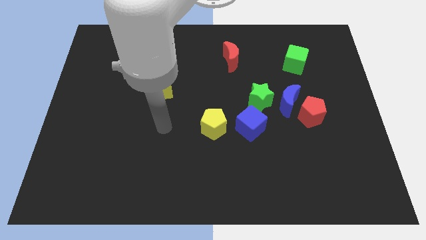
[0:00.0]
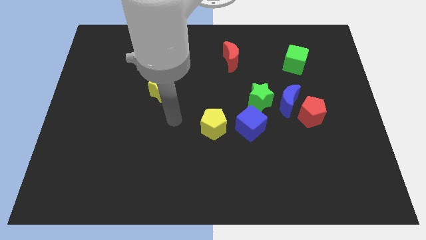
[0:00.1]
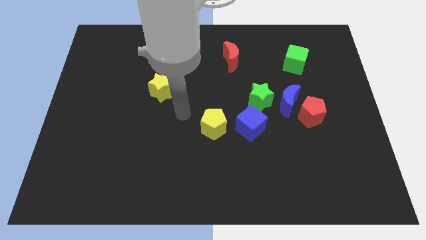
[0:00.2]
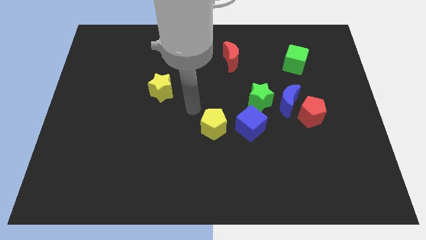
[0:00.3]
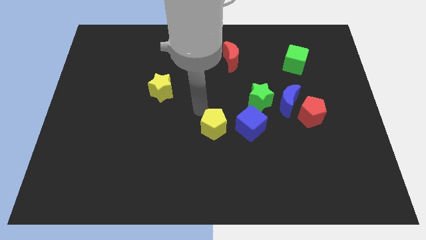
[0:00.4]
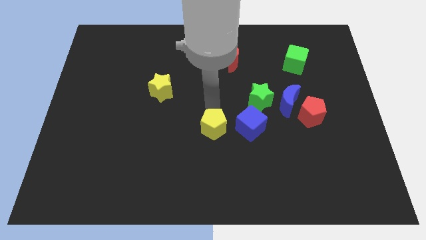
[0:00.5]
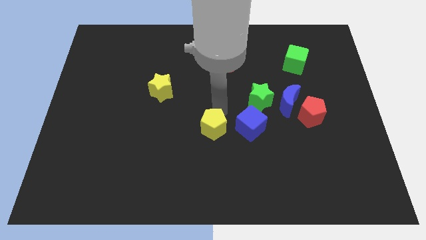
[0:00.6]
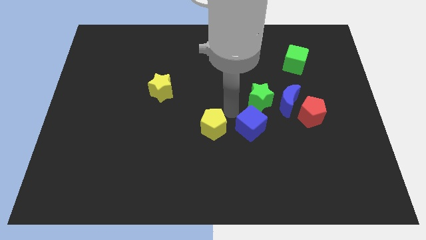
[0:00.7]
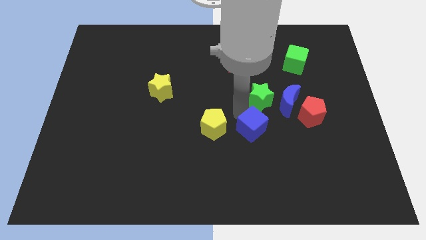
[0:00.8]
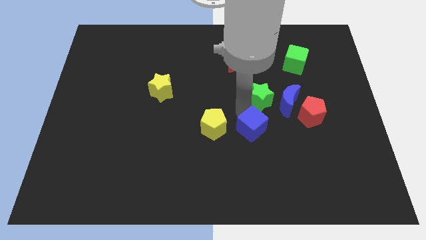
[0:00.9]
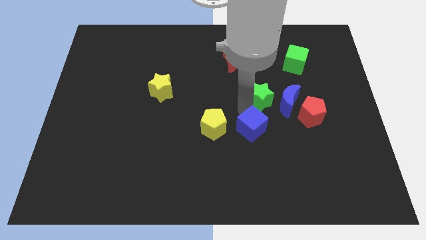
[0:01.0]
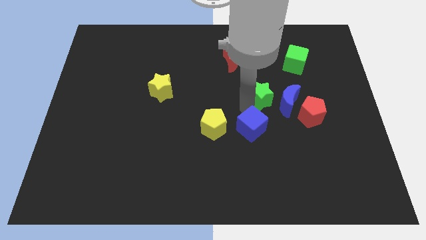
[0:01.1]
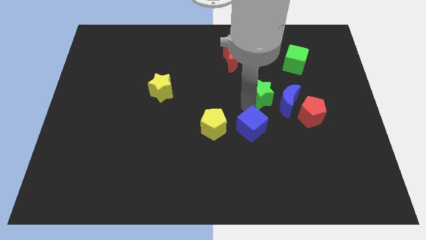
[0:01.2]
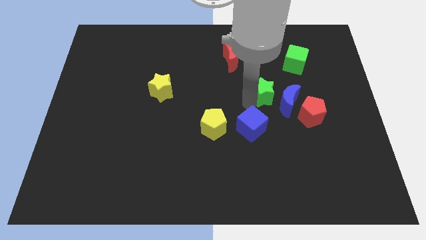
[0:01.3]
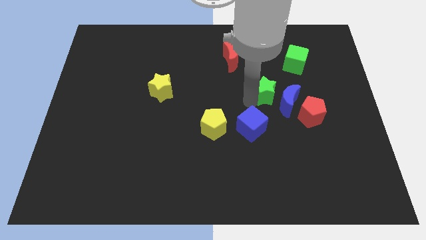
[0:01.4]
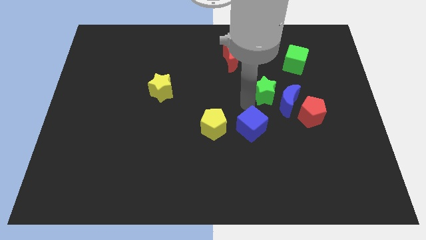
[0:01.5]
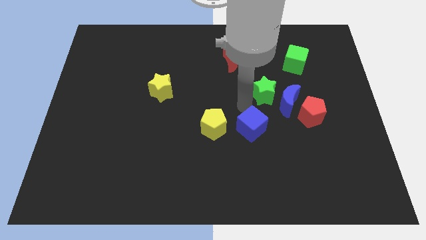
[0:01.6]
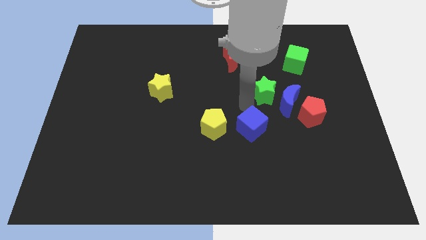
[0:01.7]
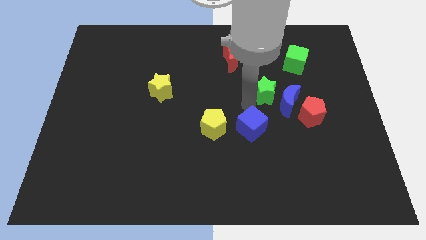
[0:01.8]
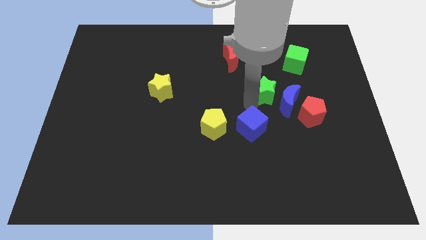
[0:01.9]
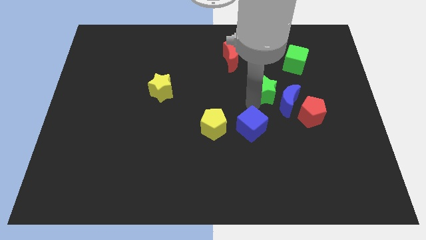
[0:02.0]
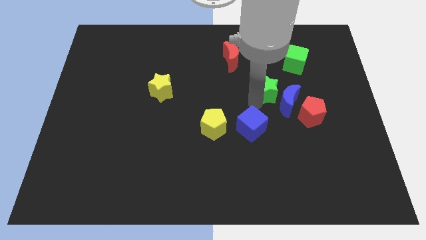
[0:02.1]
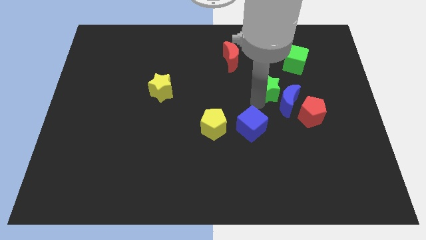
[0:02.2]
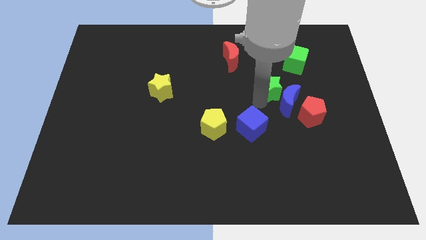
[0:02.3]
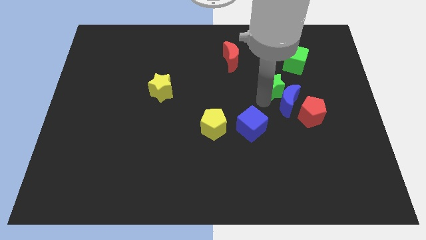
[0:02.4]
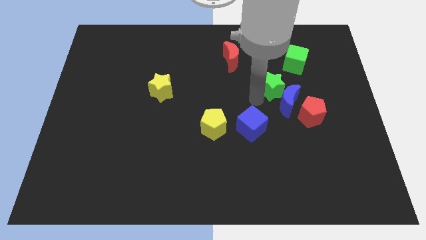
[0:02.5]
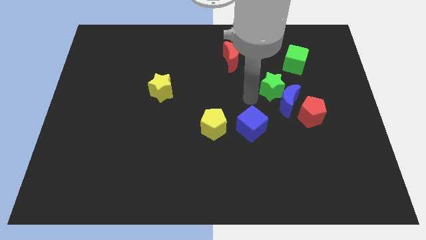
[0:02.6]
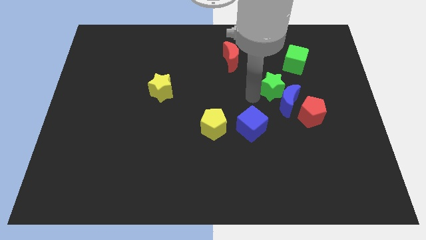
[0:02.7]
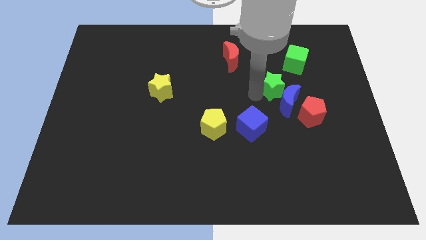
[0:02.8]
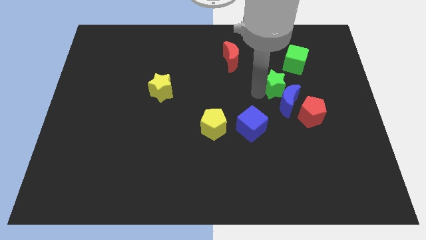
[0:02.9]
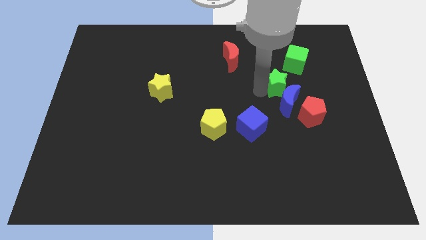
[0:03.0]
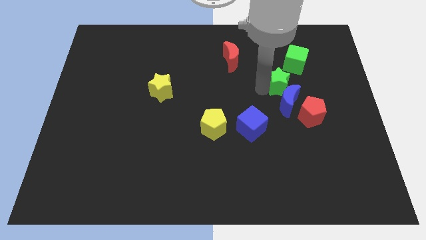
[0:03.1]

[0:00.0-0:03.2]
slide the green star a bit diagonally upwards and to the right

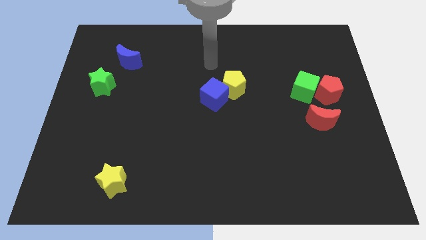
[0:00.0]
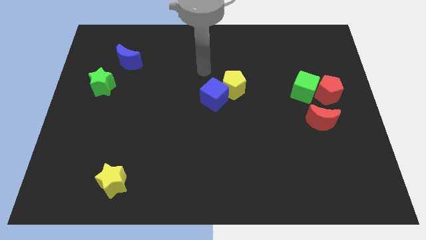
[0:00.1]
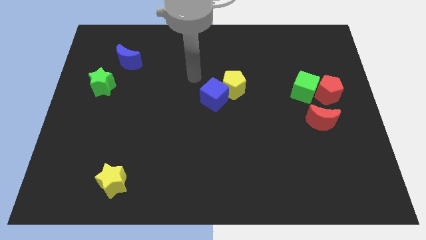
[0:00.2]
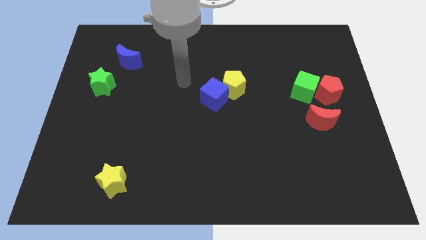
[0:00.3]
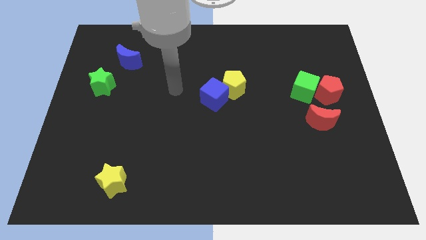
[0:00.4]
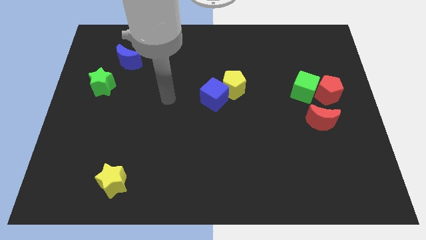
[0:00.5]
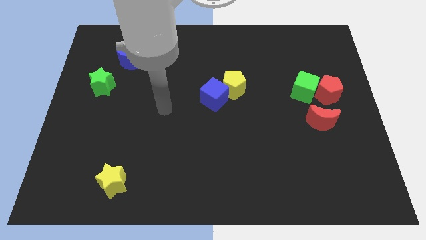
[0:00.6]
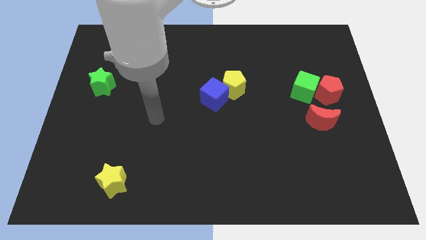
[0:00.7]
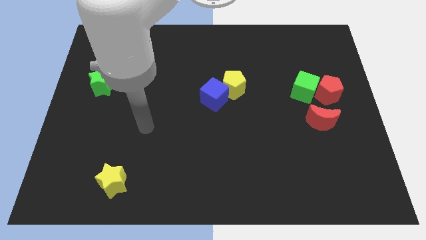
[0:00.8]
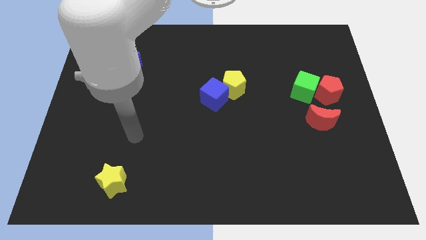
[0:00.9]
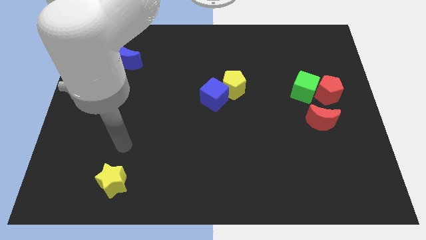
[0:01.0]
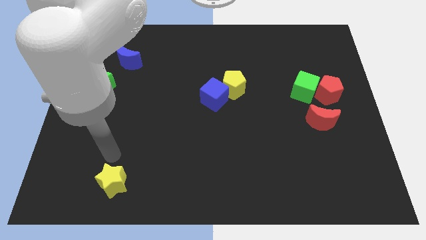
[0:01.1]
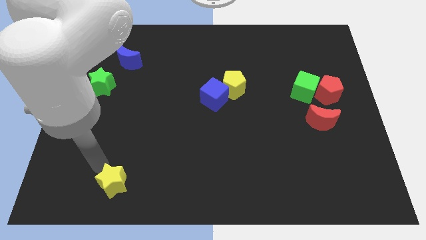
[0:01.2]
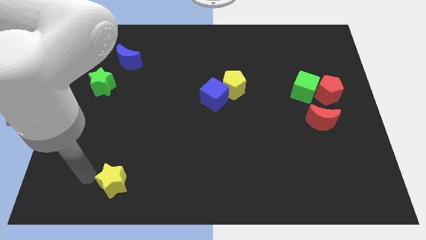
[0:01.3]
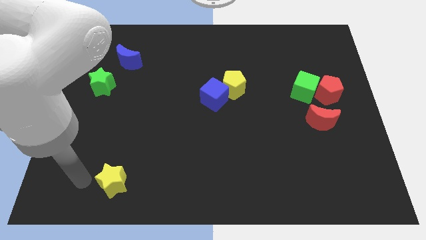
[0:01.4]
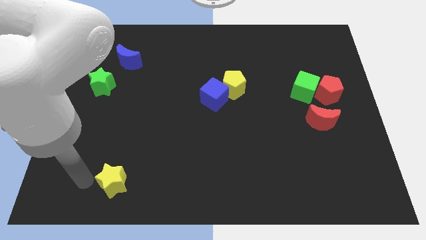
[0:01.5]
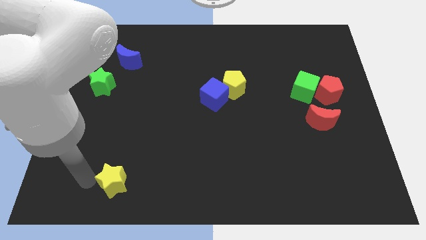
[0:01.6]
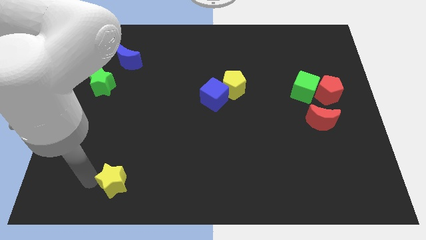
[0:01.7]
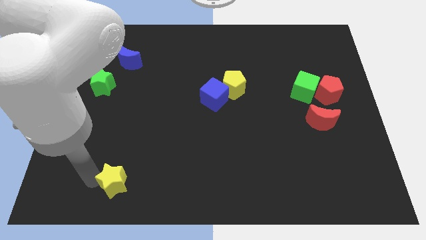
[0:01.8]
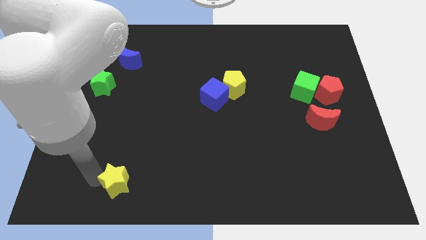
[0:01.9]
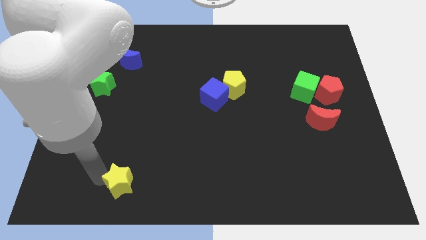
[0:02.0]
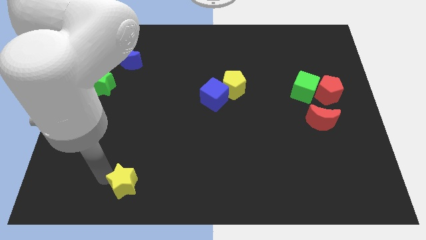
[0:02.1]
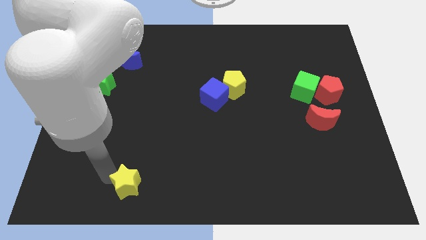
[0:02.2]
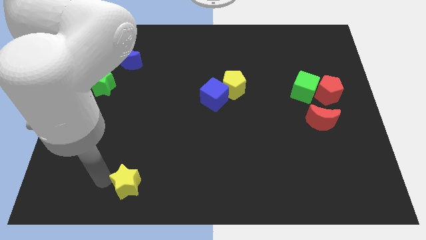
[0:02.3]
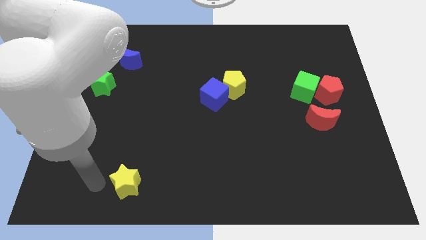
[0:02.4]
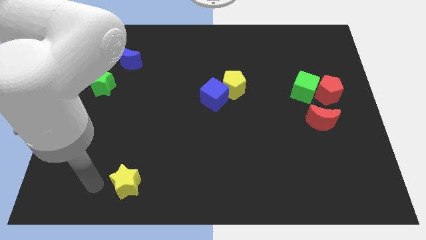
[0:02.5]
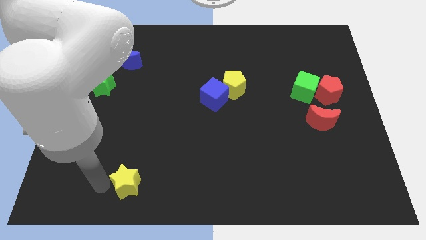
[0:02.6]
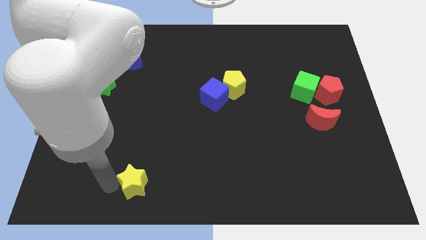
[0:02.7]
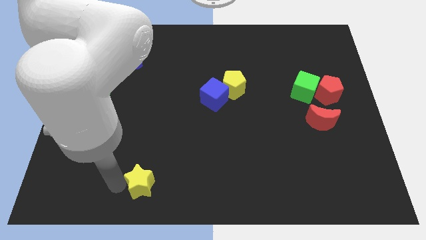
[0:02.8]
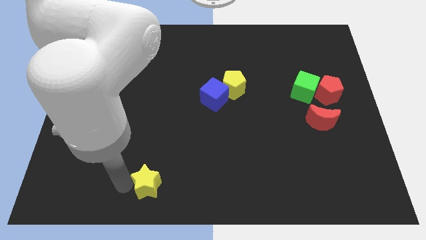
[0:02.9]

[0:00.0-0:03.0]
slightly push the yellow star right

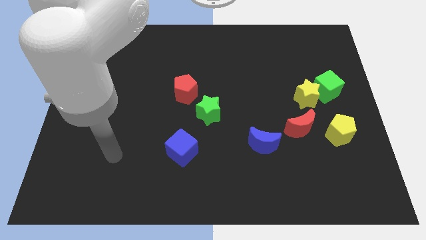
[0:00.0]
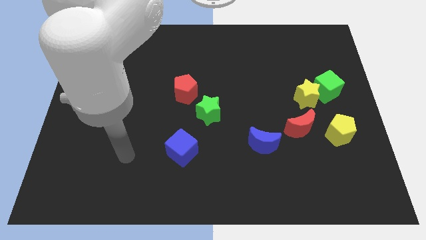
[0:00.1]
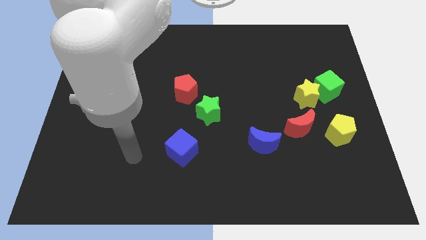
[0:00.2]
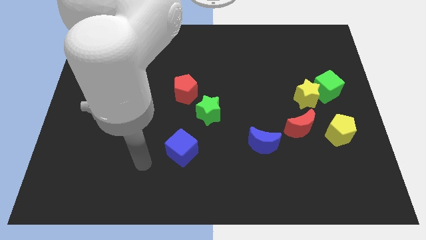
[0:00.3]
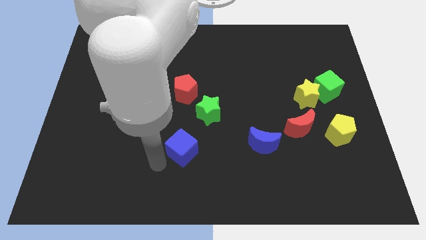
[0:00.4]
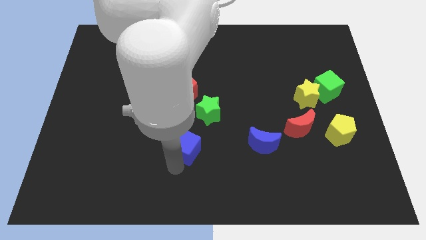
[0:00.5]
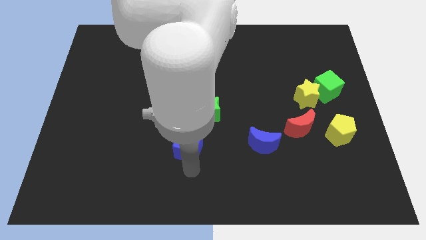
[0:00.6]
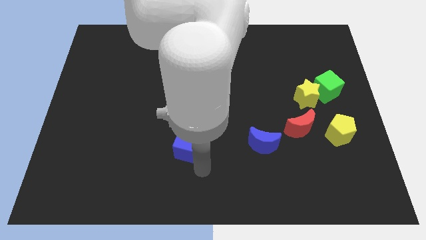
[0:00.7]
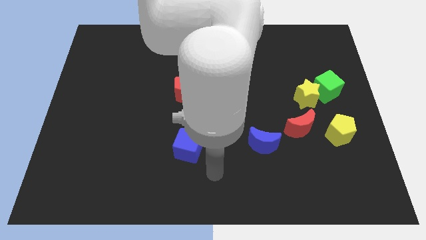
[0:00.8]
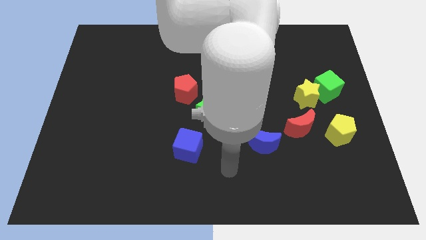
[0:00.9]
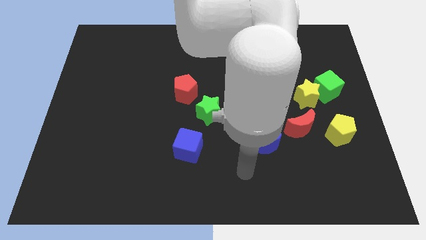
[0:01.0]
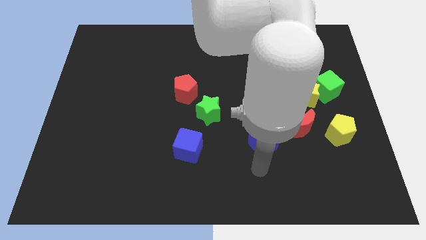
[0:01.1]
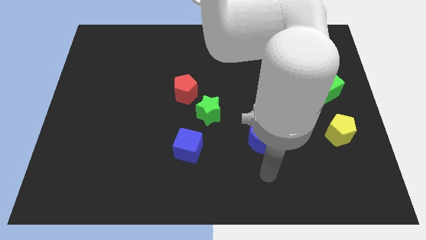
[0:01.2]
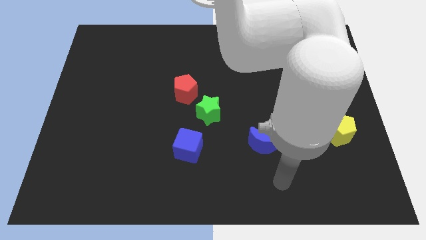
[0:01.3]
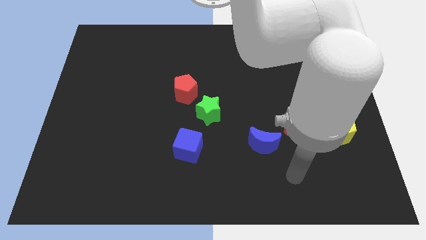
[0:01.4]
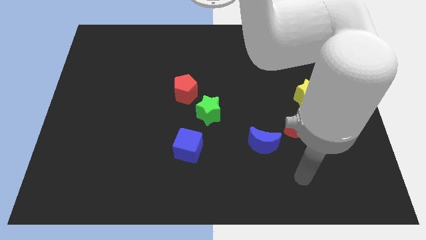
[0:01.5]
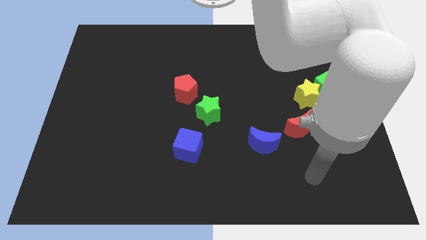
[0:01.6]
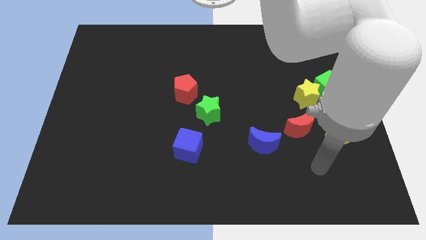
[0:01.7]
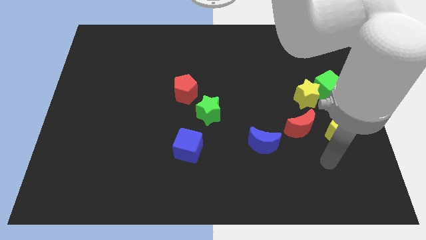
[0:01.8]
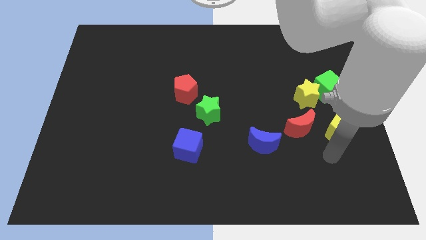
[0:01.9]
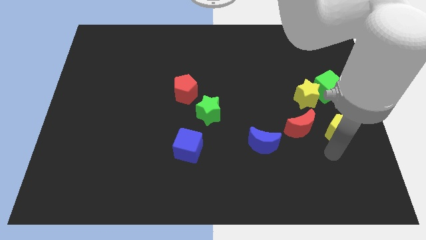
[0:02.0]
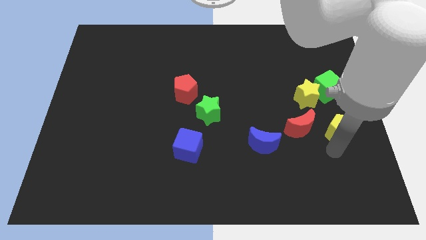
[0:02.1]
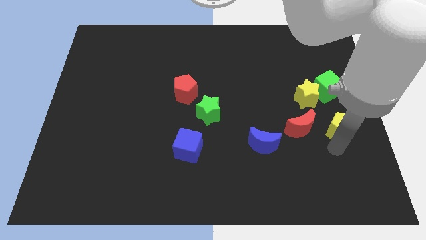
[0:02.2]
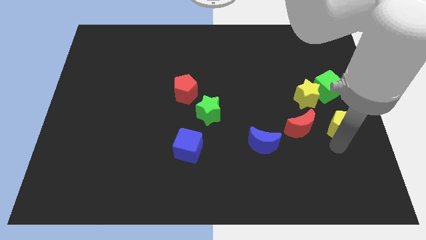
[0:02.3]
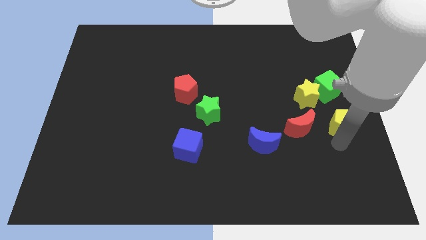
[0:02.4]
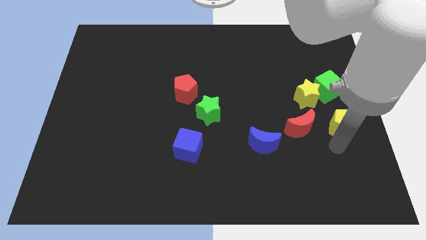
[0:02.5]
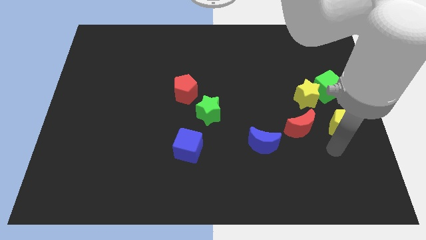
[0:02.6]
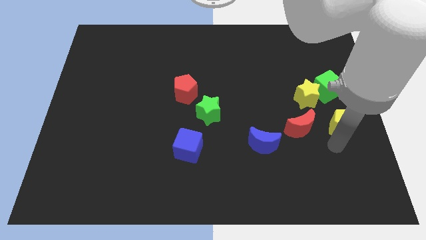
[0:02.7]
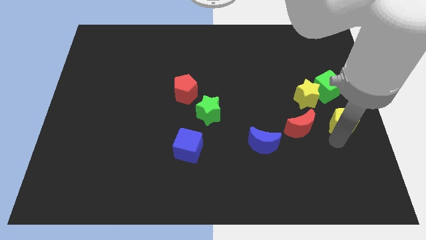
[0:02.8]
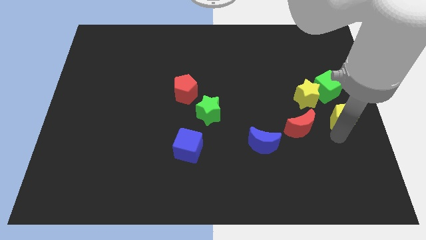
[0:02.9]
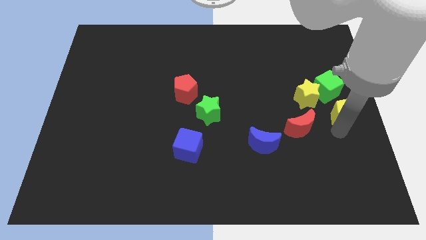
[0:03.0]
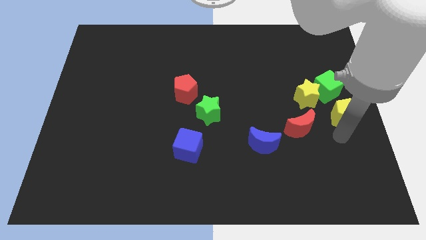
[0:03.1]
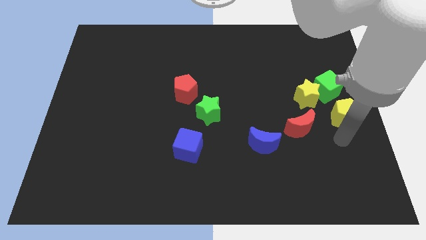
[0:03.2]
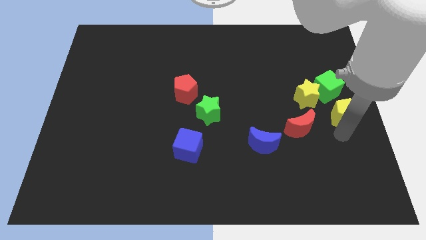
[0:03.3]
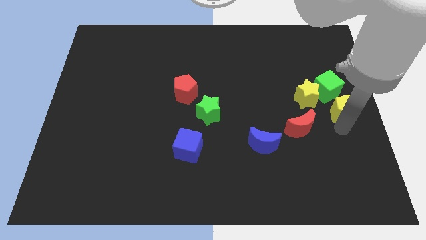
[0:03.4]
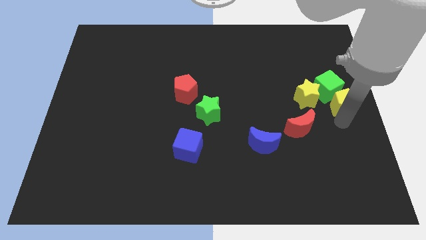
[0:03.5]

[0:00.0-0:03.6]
slide the yellow pentagon somewhat up
